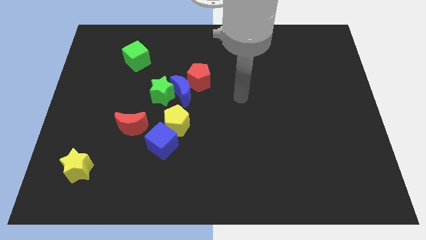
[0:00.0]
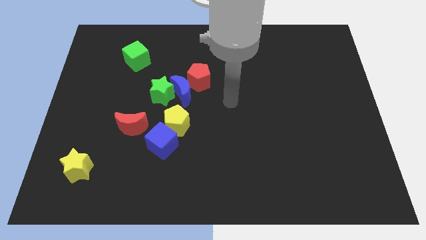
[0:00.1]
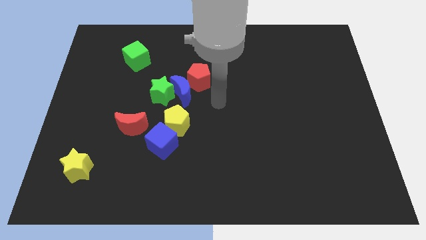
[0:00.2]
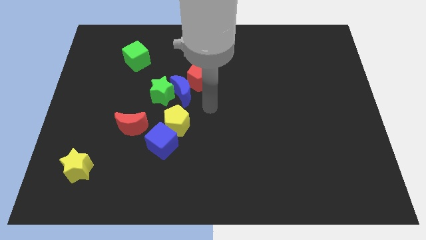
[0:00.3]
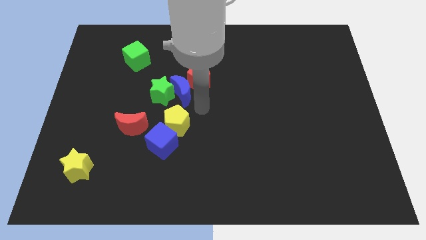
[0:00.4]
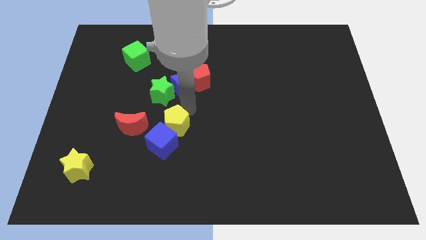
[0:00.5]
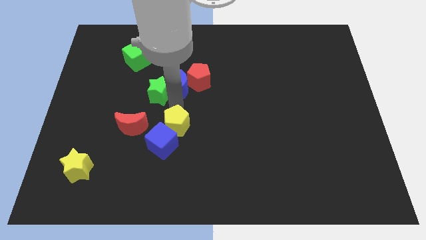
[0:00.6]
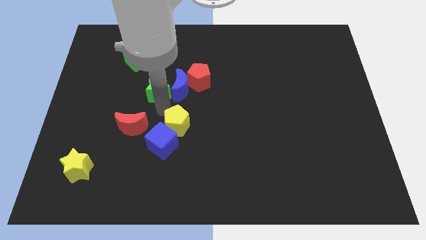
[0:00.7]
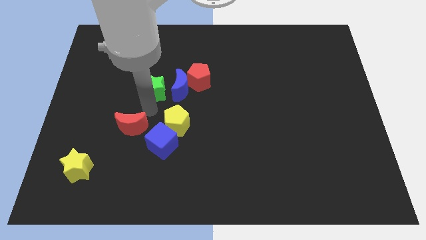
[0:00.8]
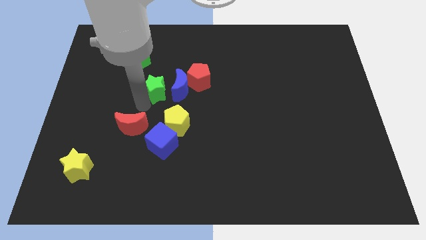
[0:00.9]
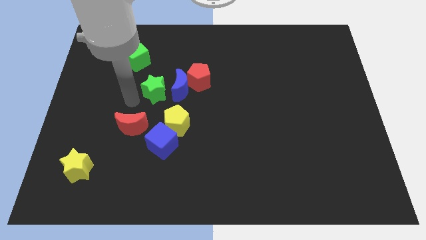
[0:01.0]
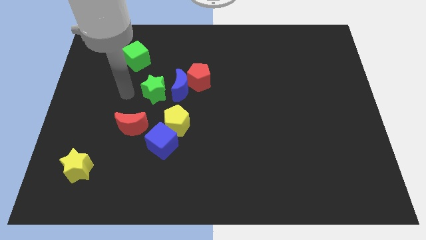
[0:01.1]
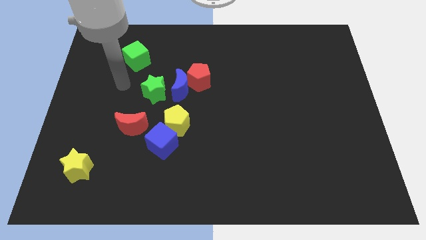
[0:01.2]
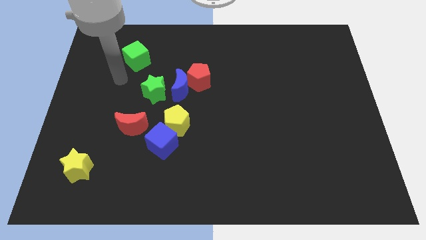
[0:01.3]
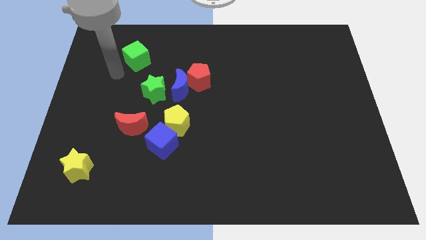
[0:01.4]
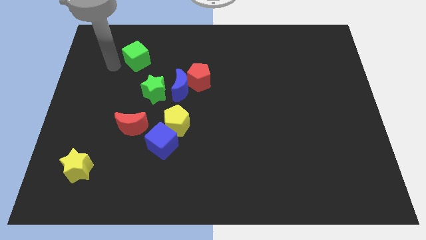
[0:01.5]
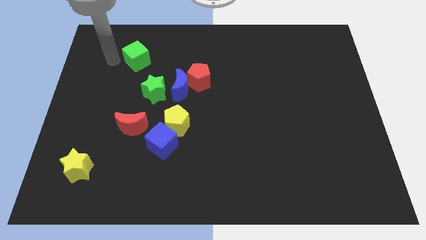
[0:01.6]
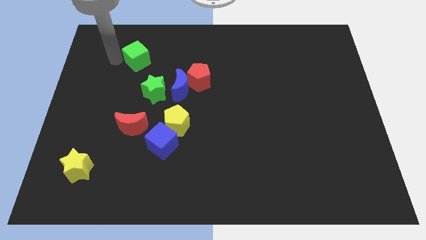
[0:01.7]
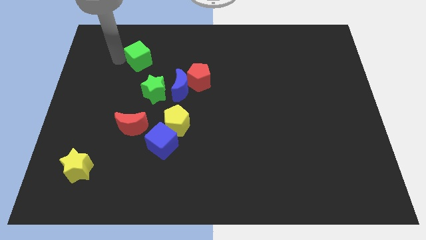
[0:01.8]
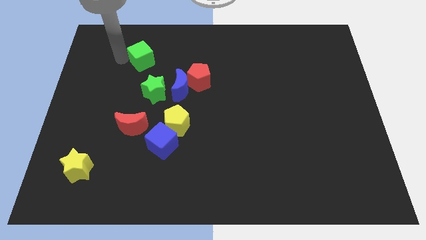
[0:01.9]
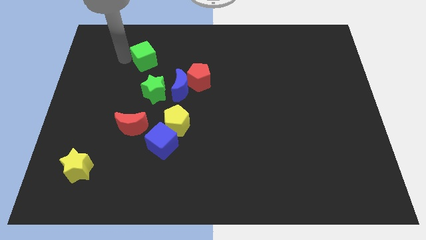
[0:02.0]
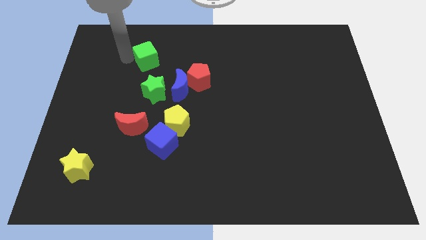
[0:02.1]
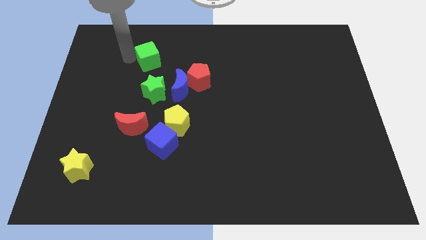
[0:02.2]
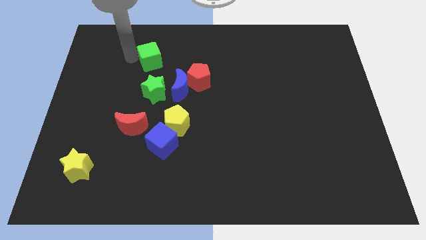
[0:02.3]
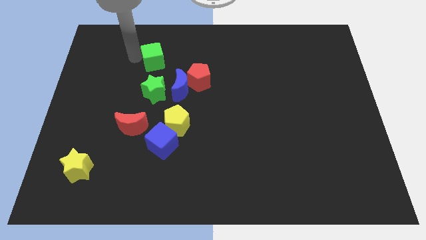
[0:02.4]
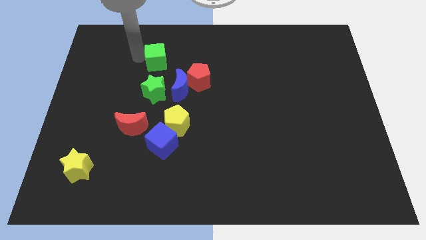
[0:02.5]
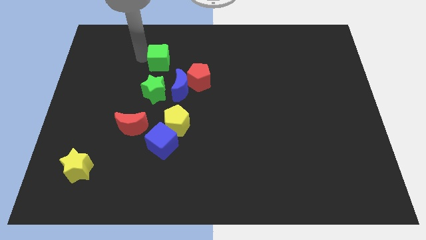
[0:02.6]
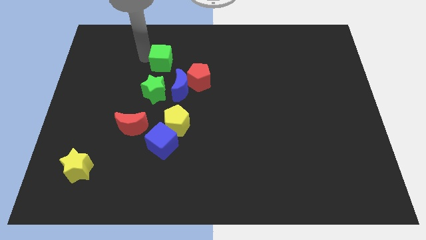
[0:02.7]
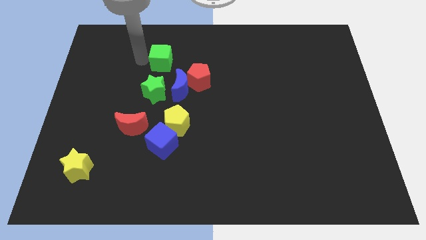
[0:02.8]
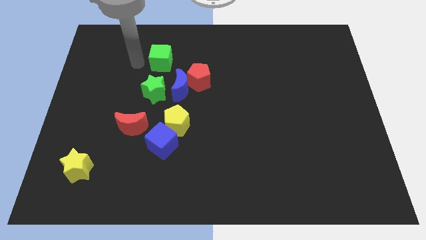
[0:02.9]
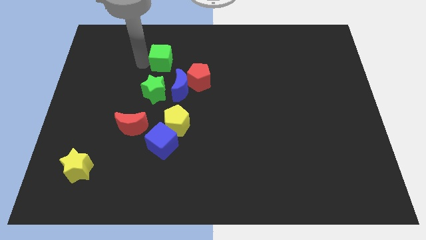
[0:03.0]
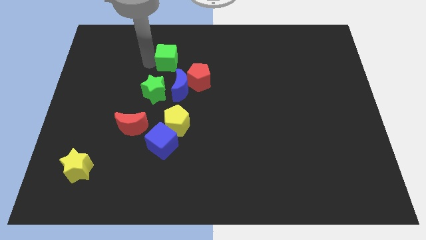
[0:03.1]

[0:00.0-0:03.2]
move the green cube to the right a little

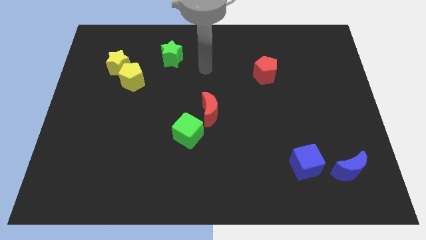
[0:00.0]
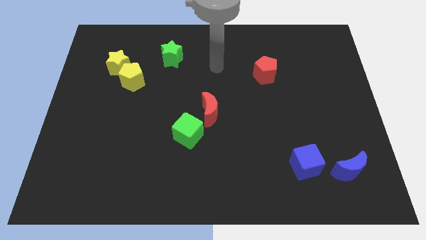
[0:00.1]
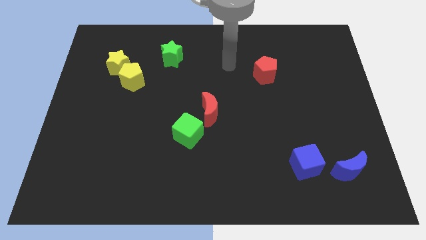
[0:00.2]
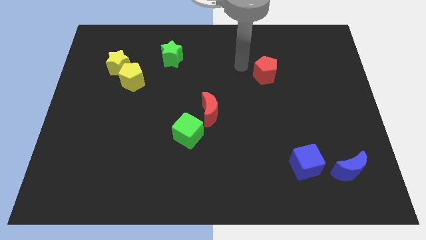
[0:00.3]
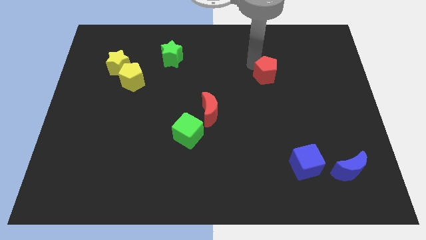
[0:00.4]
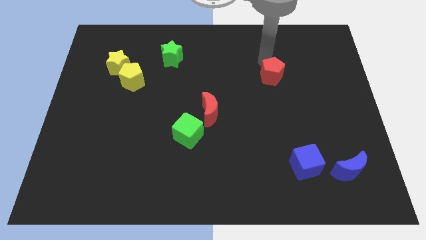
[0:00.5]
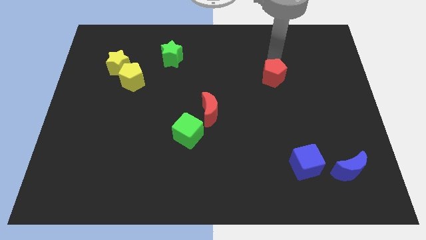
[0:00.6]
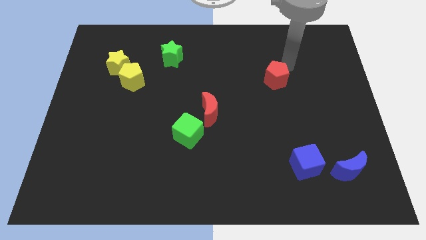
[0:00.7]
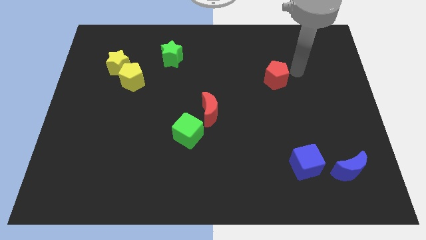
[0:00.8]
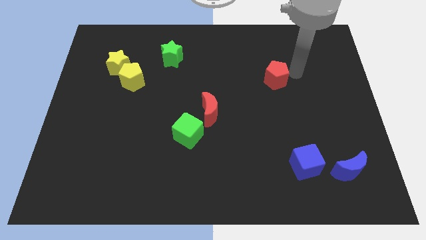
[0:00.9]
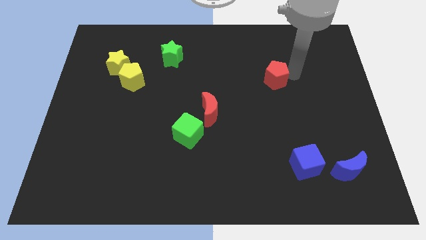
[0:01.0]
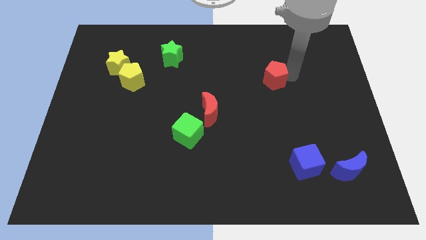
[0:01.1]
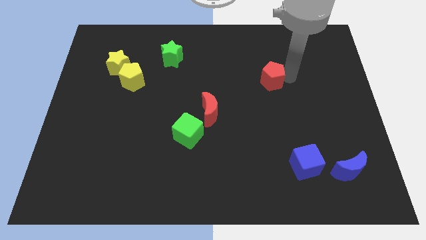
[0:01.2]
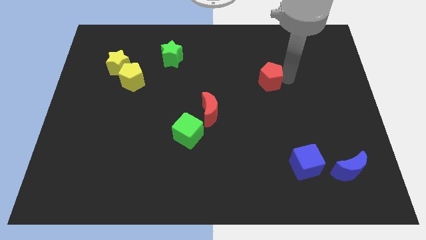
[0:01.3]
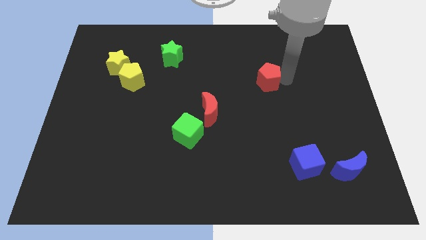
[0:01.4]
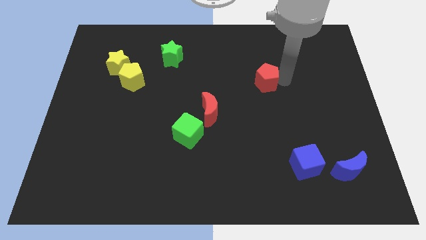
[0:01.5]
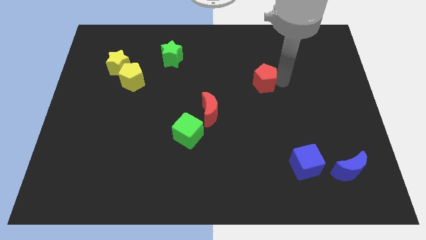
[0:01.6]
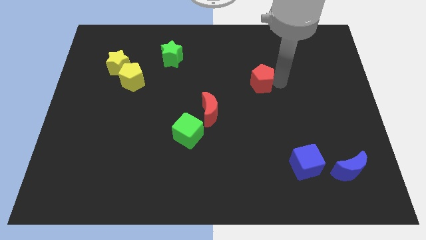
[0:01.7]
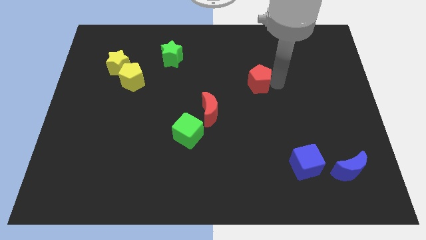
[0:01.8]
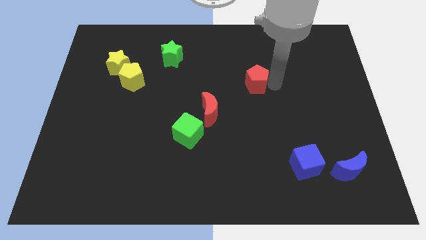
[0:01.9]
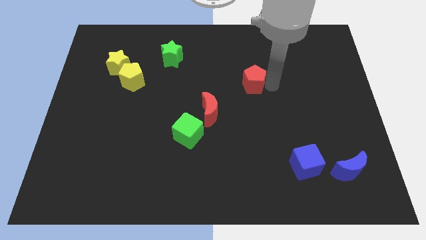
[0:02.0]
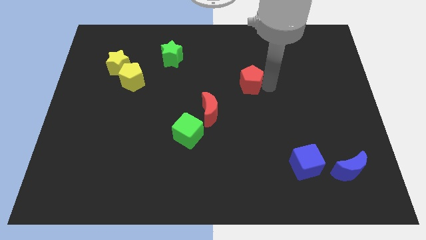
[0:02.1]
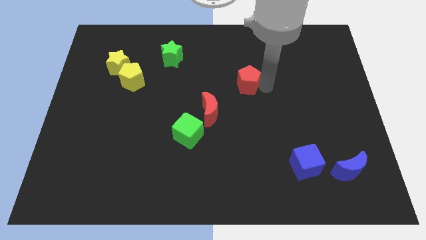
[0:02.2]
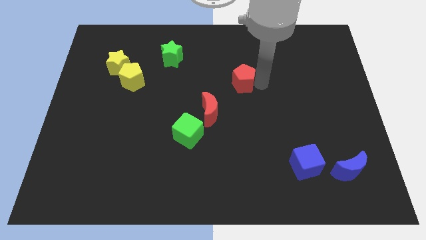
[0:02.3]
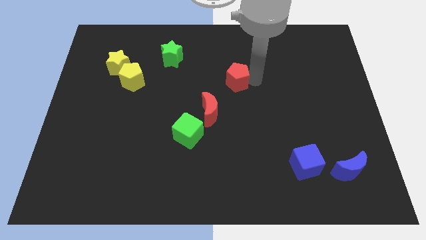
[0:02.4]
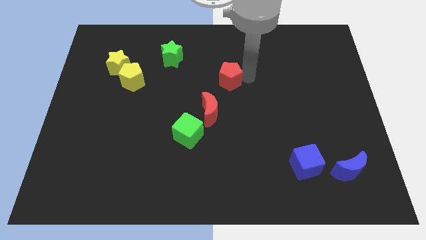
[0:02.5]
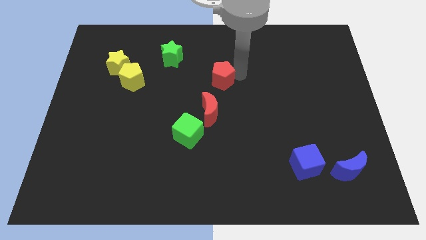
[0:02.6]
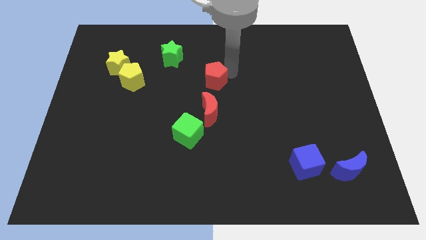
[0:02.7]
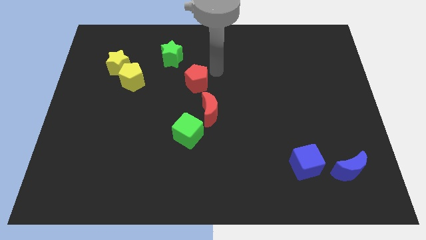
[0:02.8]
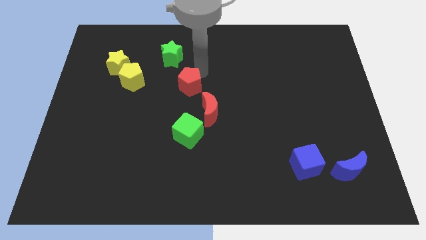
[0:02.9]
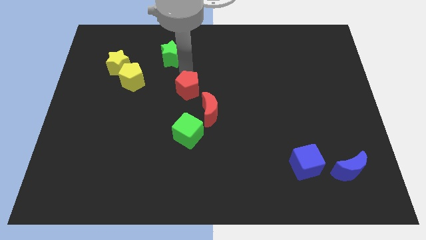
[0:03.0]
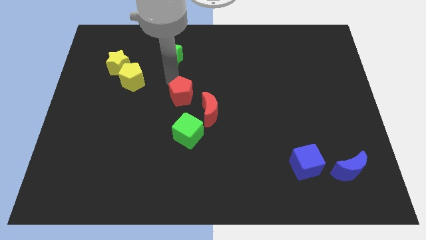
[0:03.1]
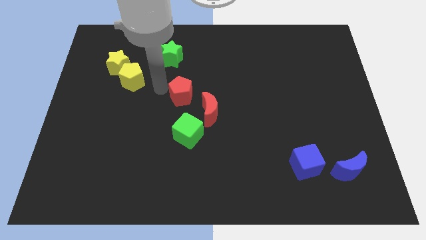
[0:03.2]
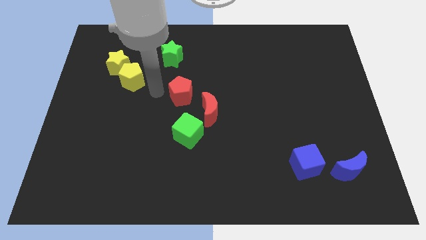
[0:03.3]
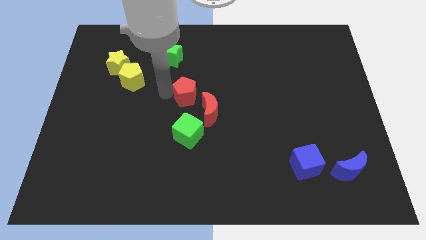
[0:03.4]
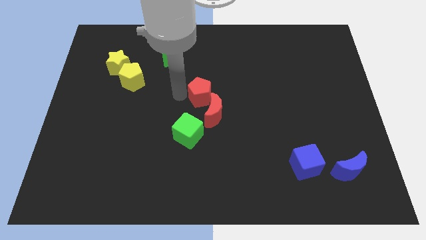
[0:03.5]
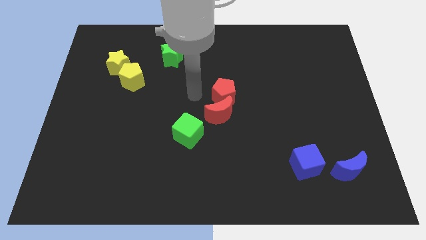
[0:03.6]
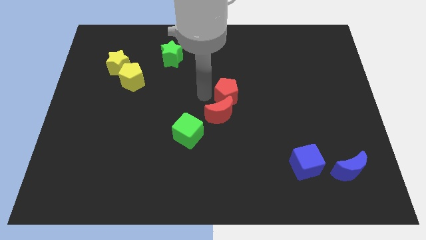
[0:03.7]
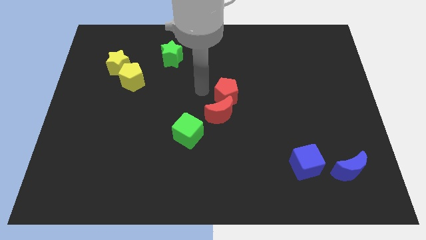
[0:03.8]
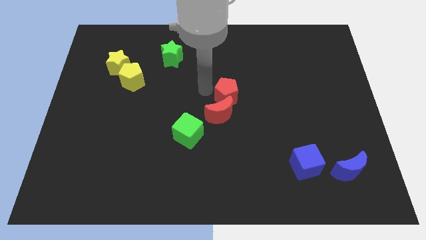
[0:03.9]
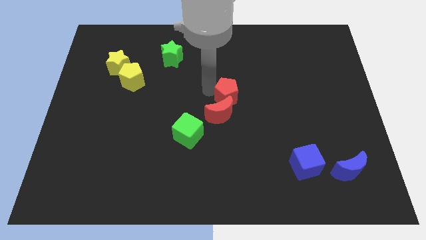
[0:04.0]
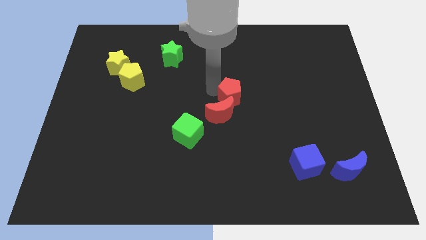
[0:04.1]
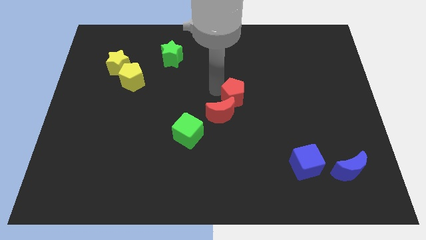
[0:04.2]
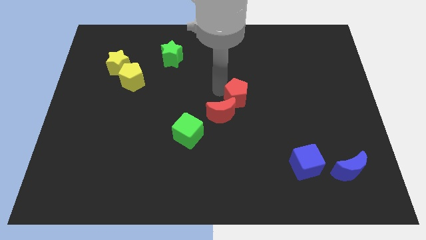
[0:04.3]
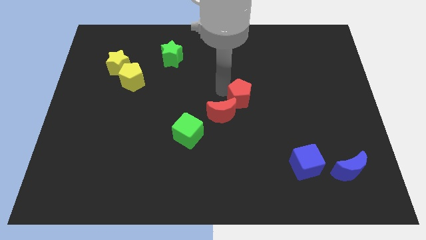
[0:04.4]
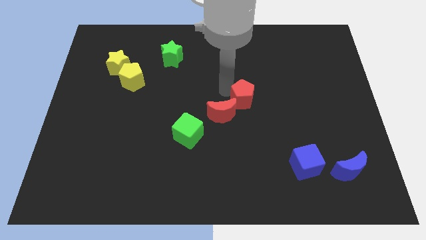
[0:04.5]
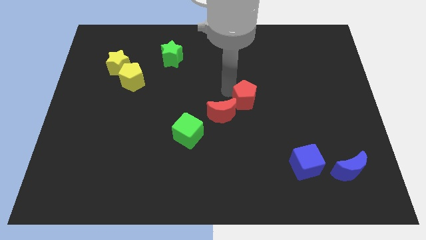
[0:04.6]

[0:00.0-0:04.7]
slightly slide the red pentagon down

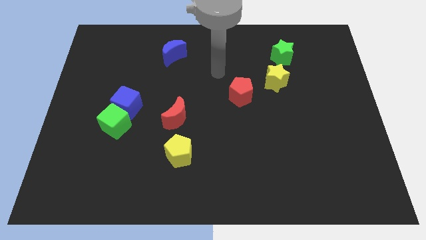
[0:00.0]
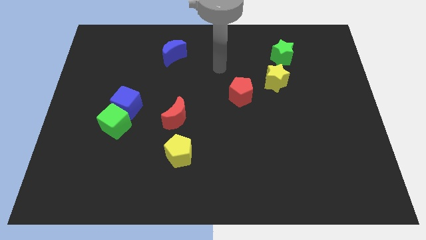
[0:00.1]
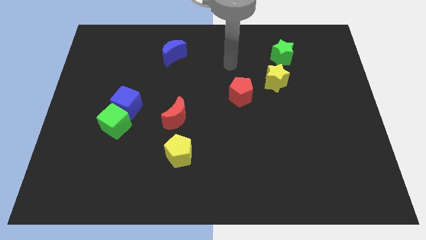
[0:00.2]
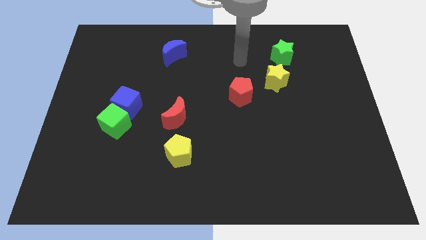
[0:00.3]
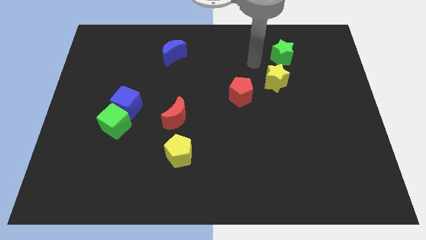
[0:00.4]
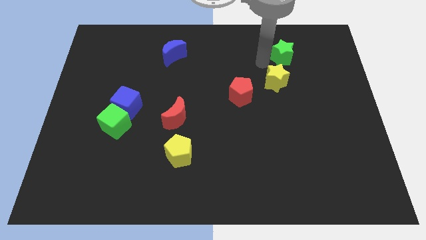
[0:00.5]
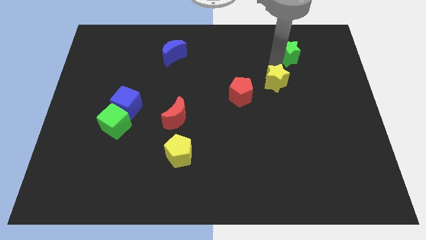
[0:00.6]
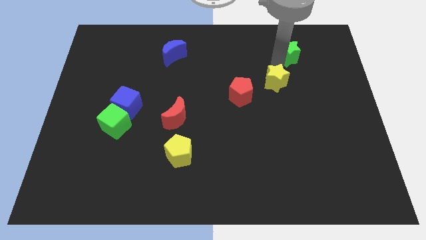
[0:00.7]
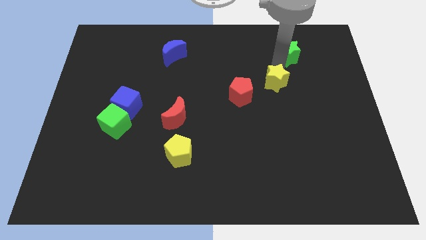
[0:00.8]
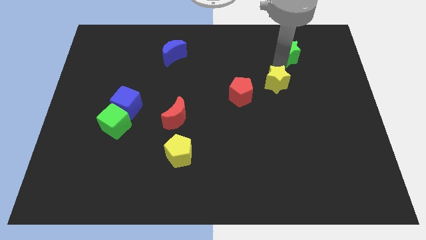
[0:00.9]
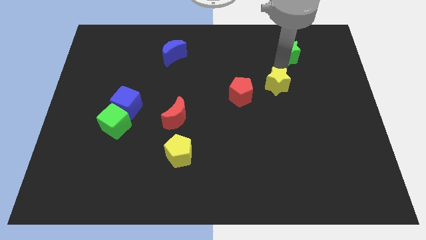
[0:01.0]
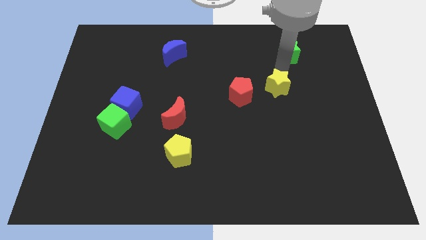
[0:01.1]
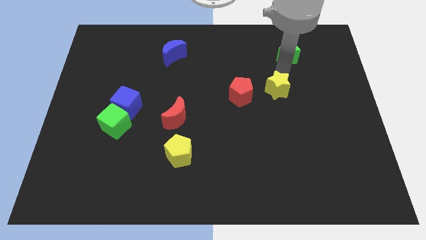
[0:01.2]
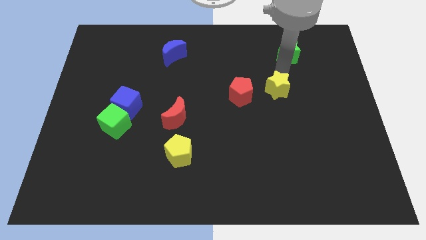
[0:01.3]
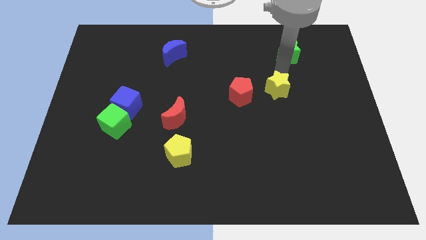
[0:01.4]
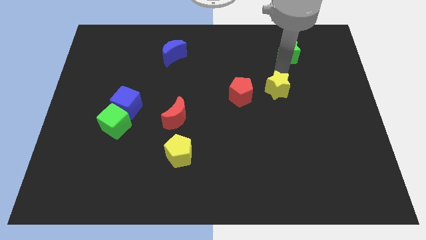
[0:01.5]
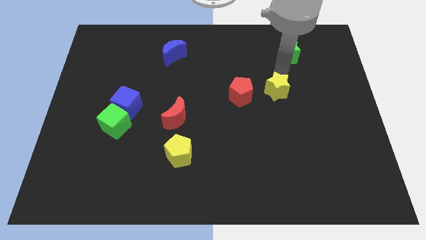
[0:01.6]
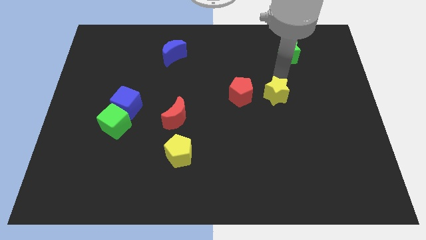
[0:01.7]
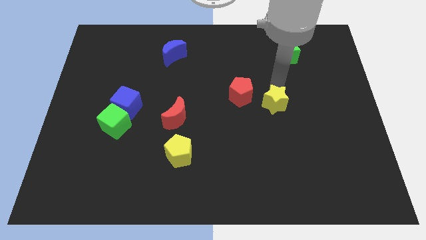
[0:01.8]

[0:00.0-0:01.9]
slightly slide the yellow star downwards
